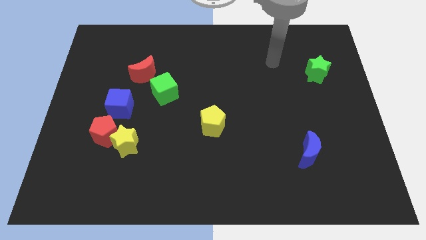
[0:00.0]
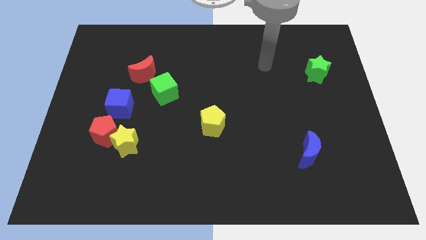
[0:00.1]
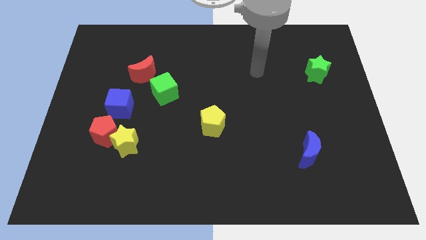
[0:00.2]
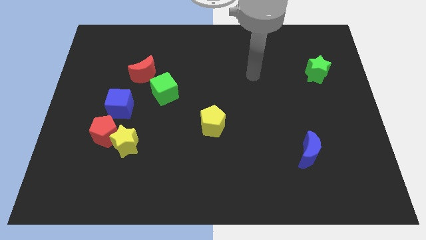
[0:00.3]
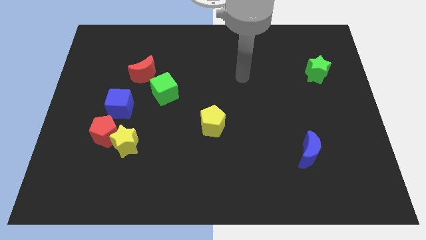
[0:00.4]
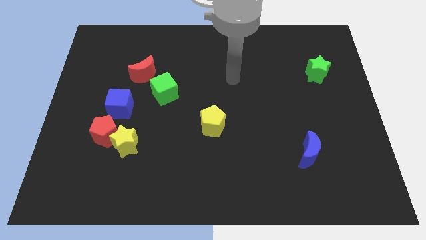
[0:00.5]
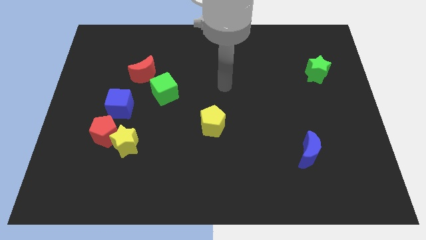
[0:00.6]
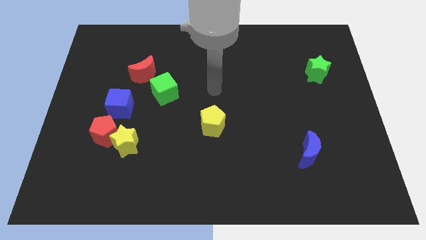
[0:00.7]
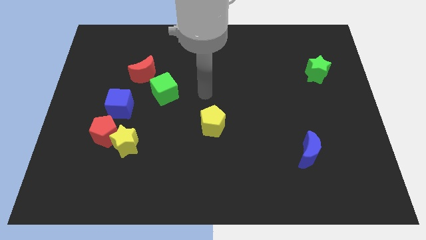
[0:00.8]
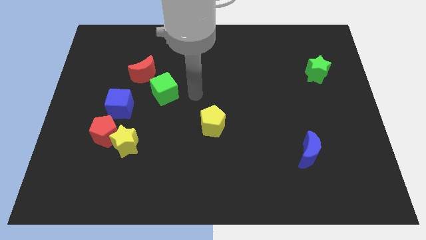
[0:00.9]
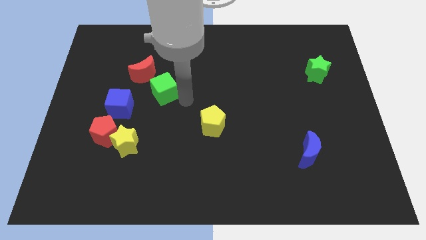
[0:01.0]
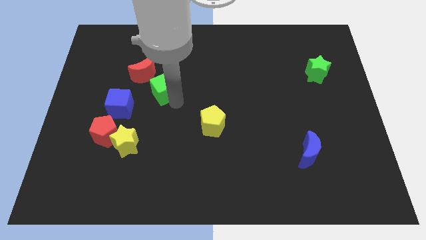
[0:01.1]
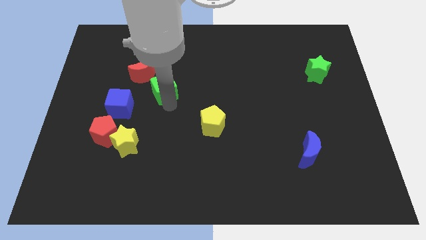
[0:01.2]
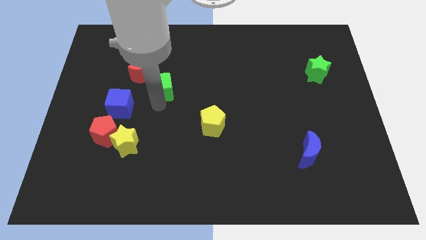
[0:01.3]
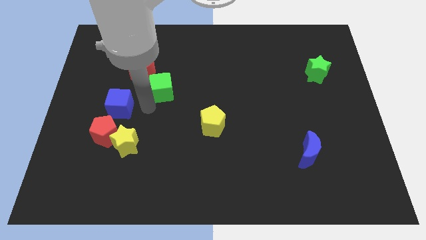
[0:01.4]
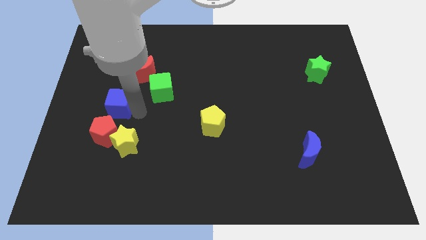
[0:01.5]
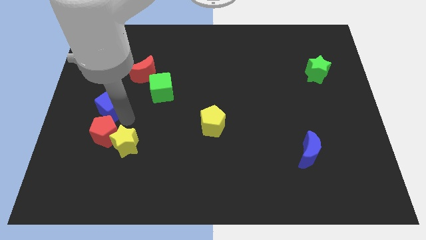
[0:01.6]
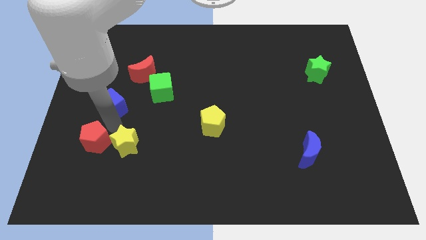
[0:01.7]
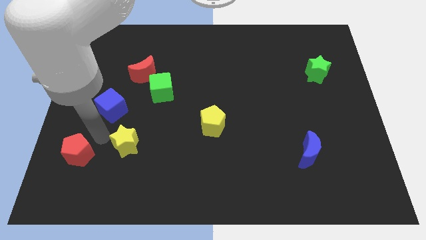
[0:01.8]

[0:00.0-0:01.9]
separate the yellow star from the red pentagon

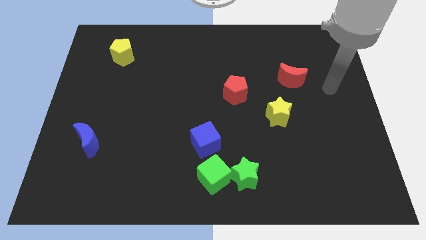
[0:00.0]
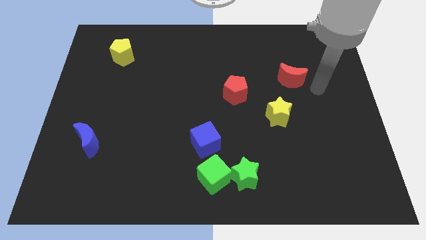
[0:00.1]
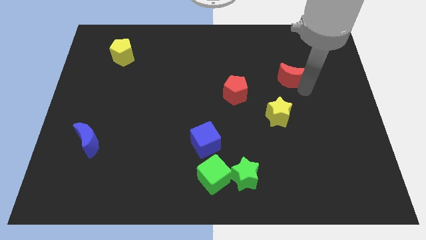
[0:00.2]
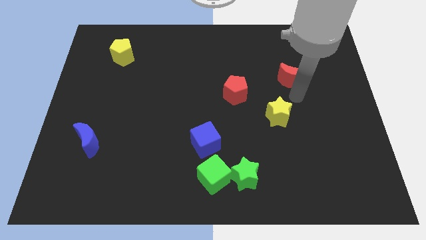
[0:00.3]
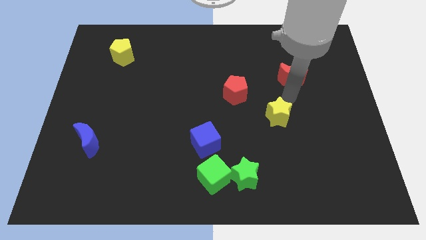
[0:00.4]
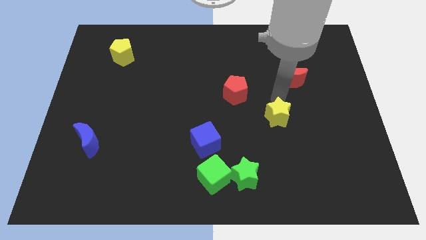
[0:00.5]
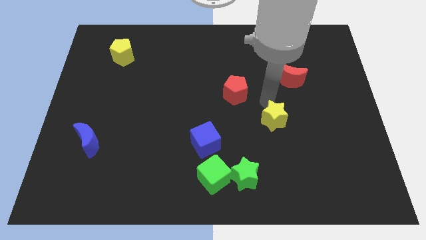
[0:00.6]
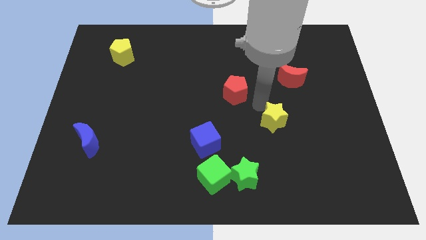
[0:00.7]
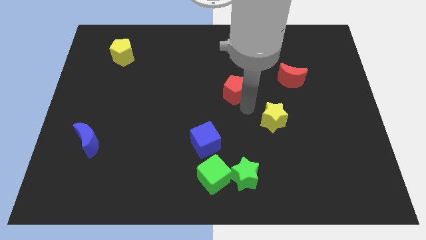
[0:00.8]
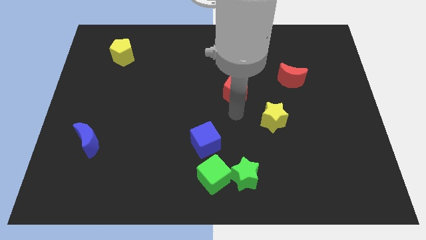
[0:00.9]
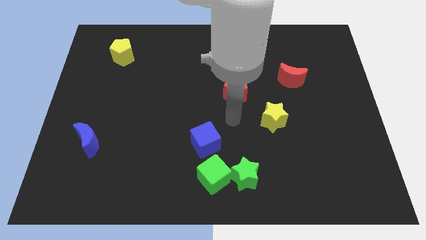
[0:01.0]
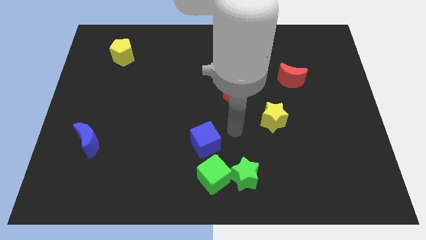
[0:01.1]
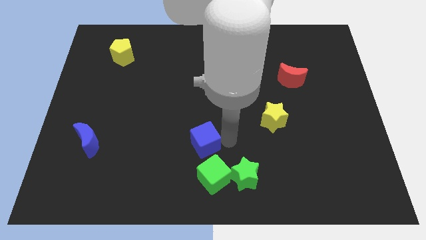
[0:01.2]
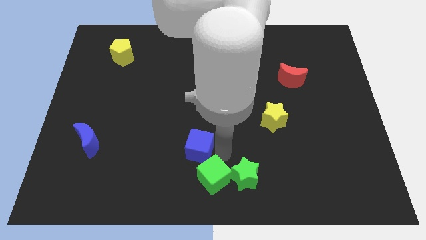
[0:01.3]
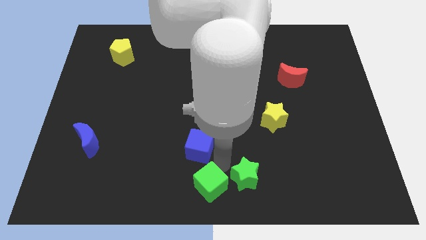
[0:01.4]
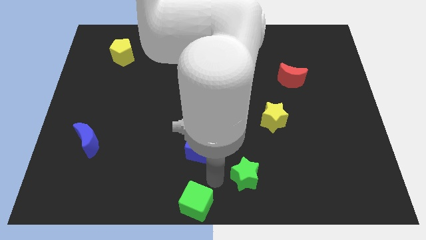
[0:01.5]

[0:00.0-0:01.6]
pull the green star apart from the green cube

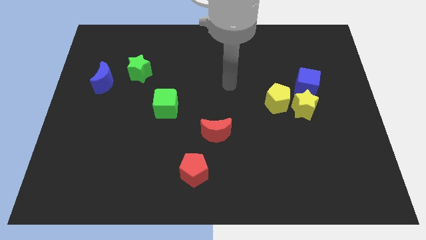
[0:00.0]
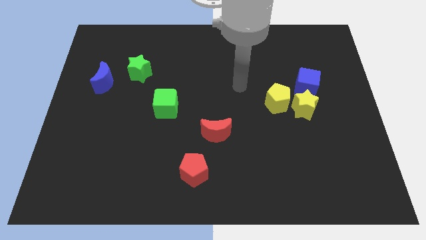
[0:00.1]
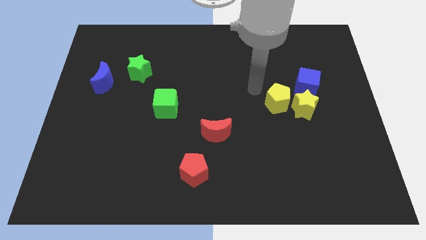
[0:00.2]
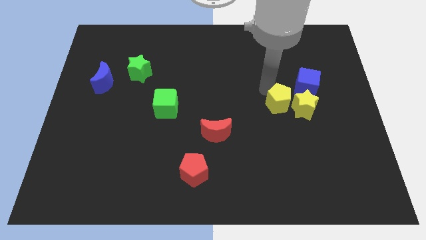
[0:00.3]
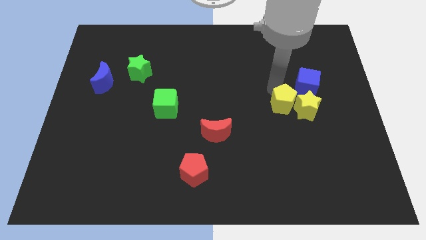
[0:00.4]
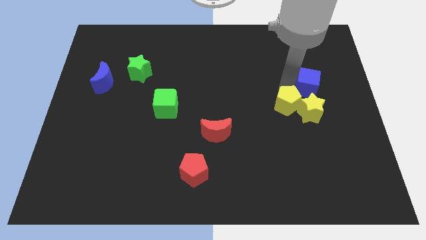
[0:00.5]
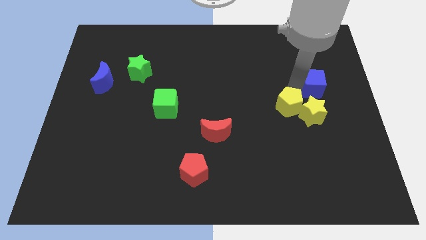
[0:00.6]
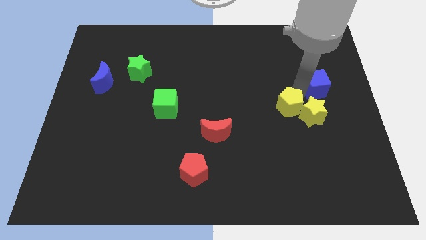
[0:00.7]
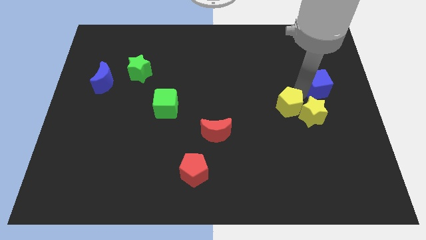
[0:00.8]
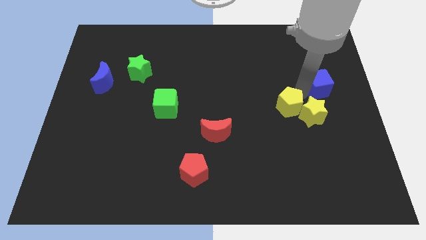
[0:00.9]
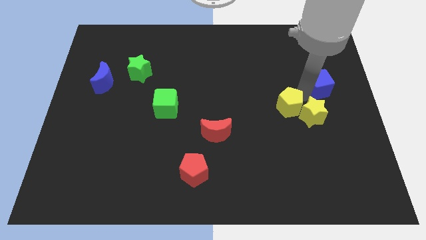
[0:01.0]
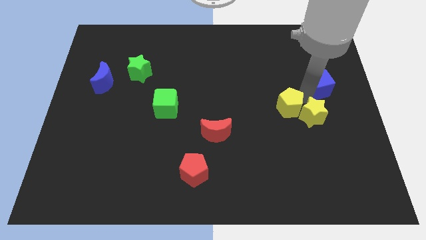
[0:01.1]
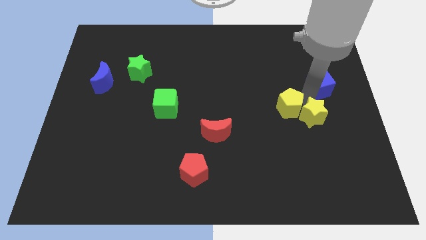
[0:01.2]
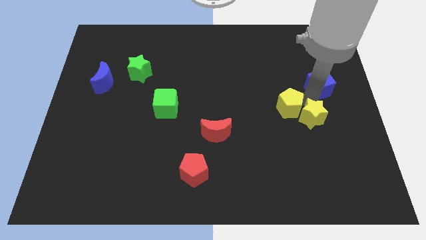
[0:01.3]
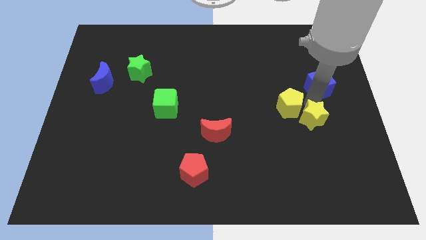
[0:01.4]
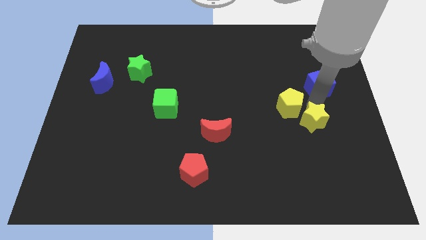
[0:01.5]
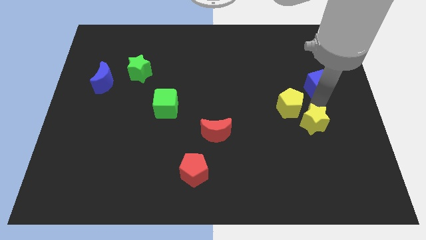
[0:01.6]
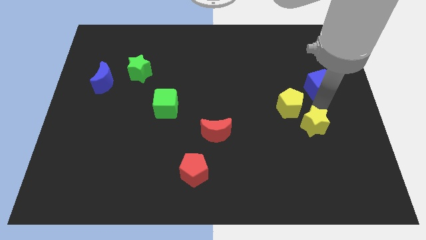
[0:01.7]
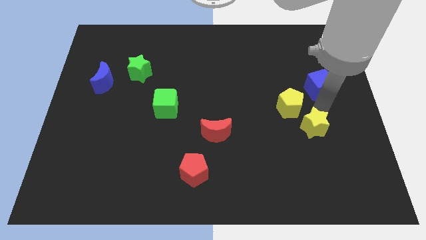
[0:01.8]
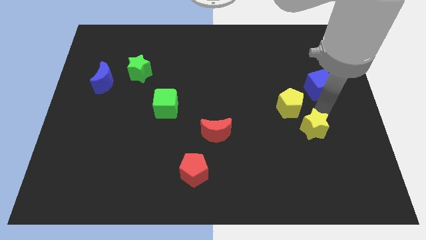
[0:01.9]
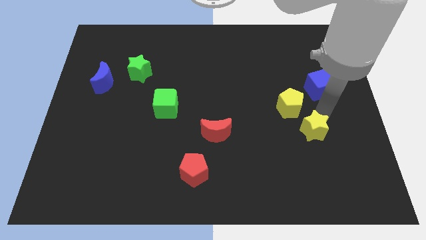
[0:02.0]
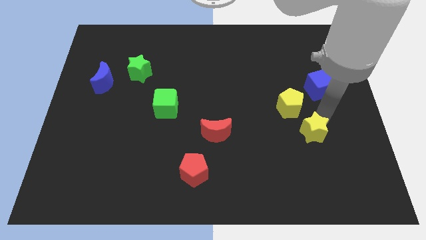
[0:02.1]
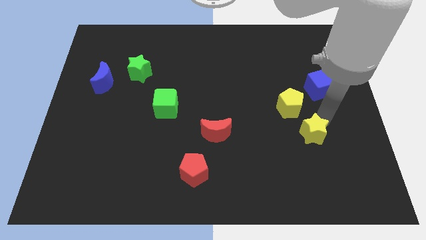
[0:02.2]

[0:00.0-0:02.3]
separate the yellow star from the yellow pentagon and blue cube

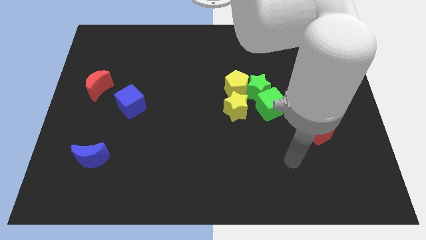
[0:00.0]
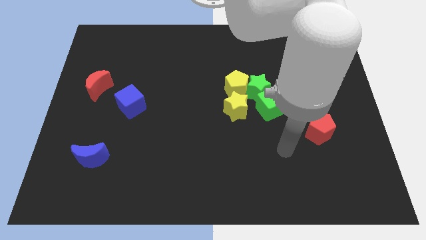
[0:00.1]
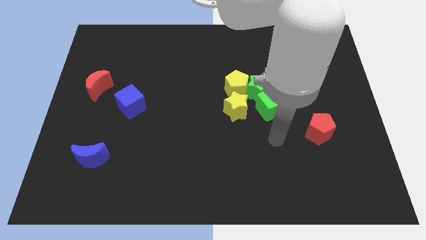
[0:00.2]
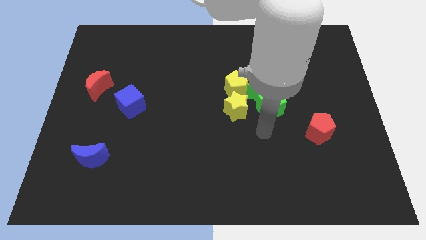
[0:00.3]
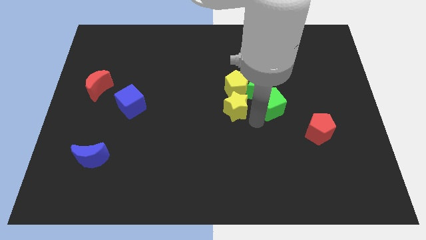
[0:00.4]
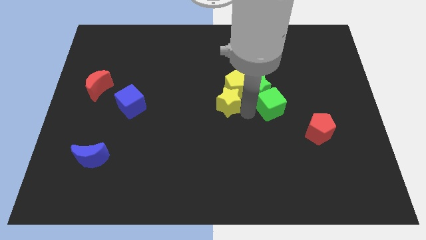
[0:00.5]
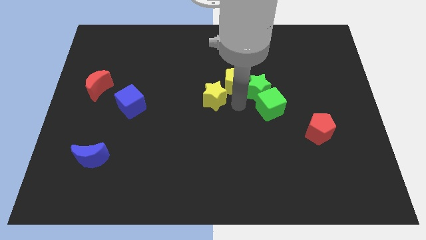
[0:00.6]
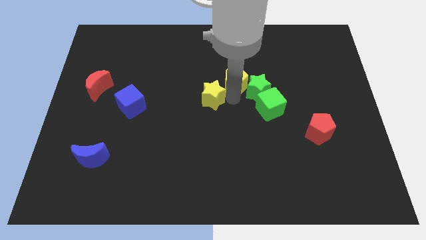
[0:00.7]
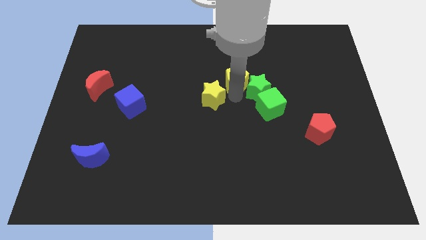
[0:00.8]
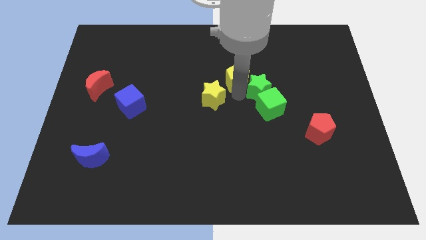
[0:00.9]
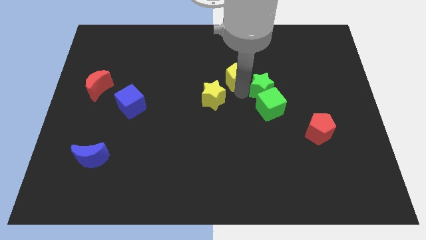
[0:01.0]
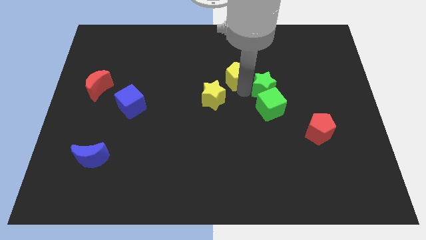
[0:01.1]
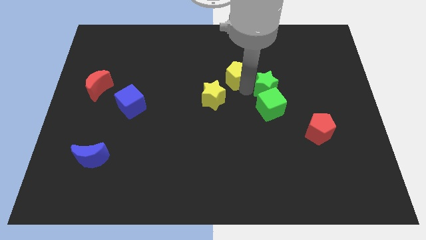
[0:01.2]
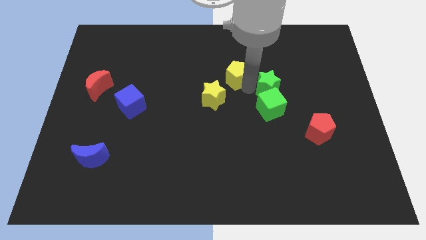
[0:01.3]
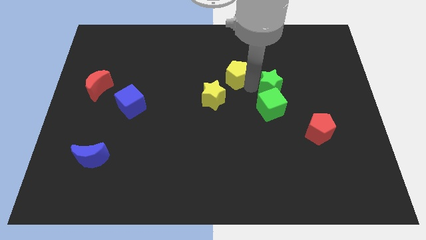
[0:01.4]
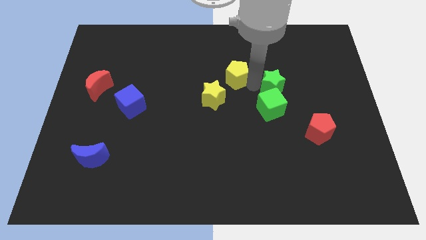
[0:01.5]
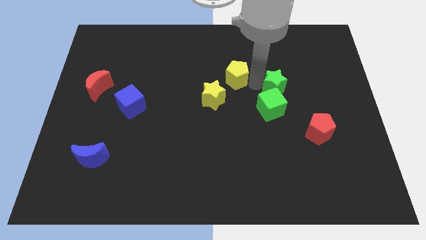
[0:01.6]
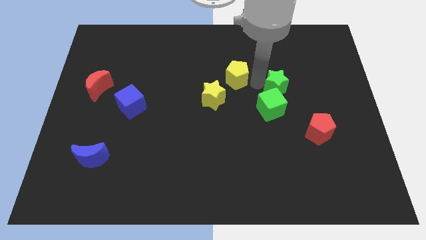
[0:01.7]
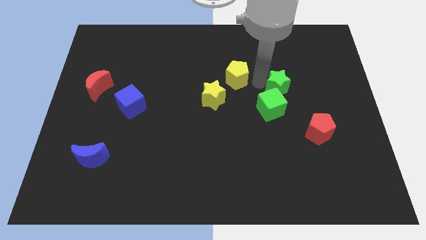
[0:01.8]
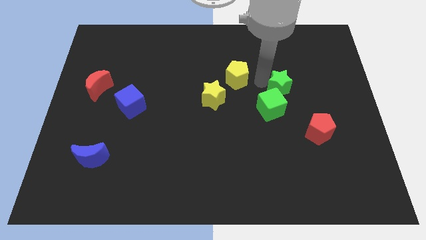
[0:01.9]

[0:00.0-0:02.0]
pull the green star apart from the yellow pentagon, green cube, and yellow star

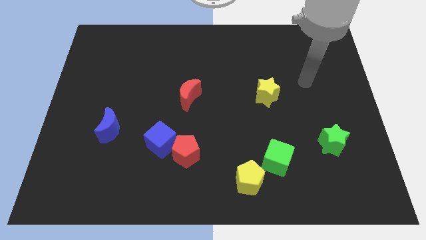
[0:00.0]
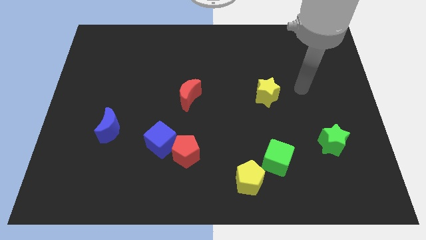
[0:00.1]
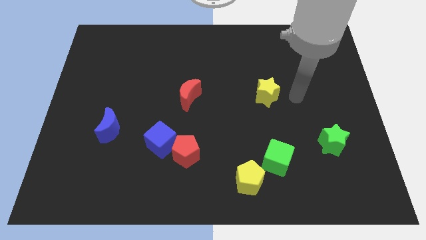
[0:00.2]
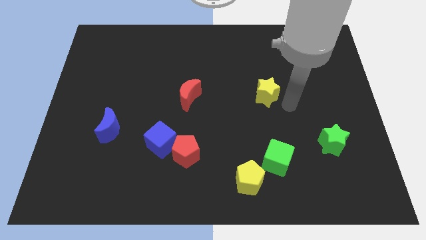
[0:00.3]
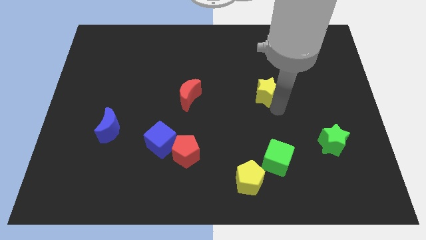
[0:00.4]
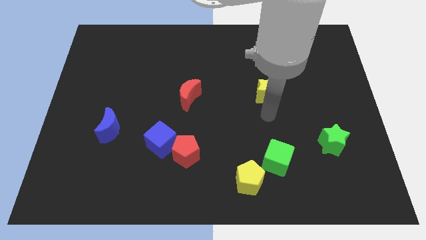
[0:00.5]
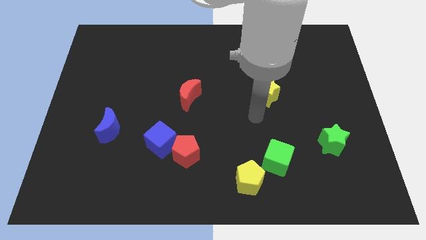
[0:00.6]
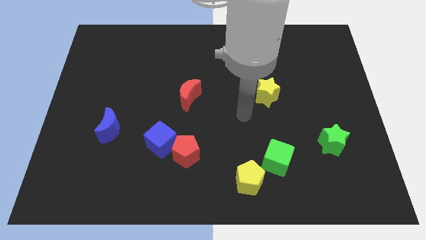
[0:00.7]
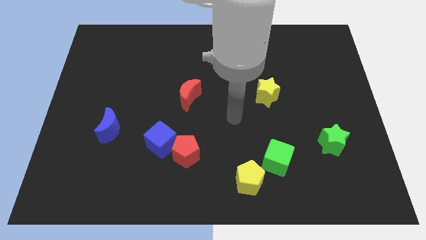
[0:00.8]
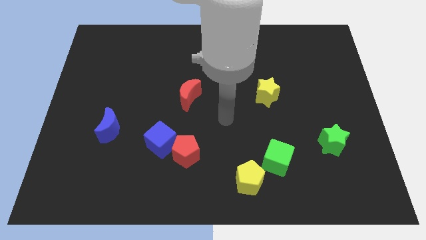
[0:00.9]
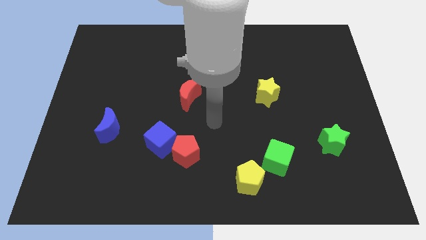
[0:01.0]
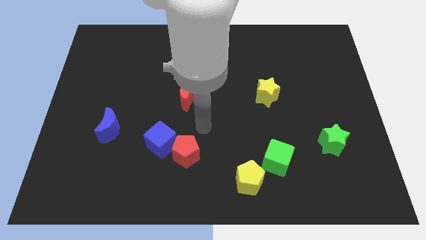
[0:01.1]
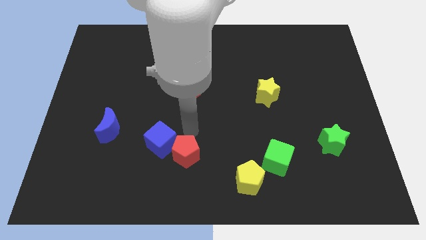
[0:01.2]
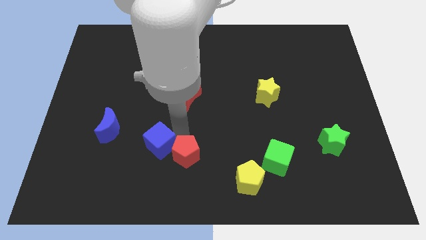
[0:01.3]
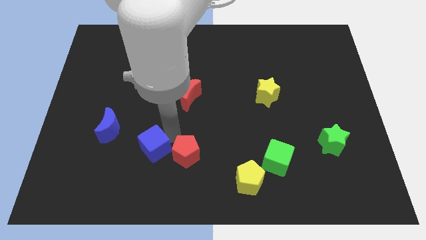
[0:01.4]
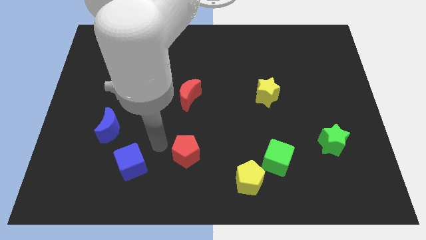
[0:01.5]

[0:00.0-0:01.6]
pull the red pentagon apart from the blue cube
